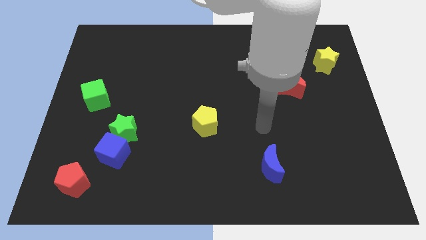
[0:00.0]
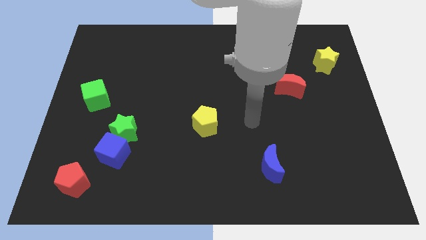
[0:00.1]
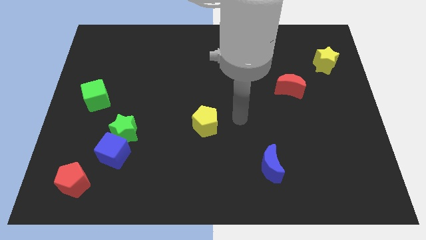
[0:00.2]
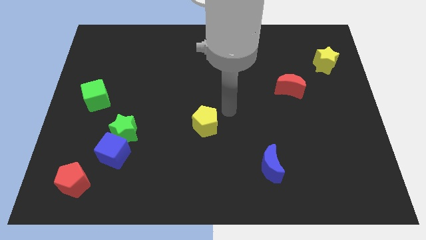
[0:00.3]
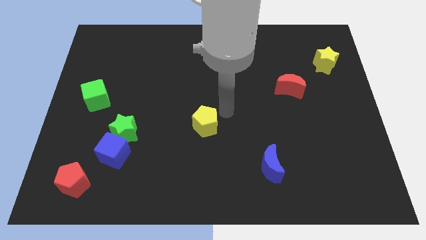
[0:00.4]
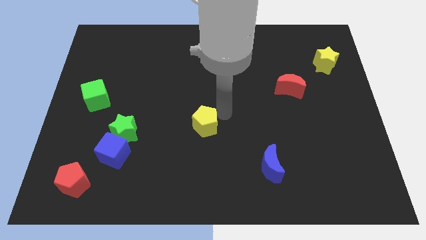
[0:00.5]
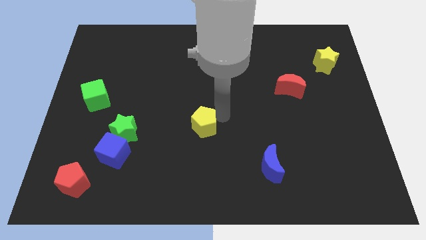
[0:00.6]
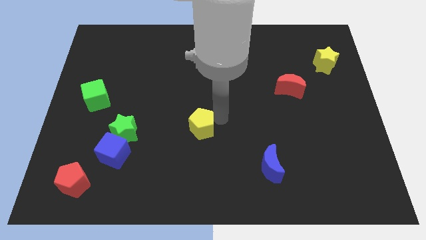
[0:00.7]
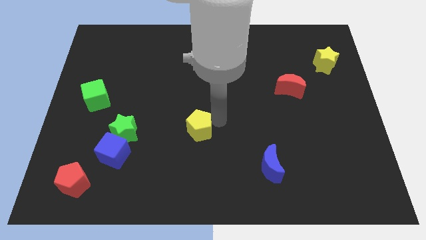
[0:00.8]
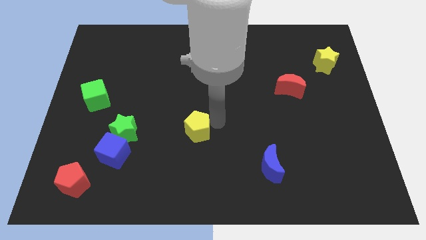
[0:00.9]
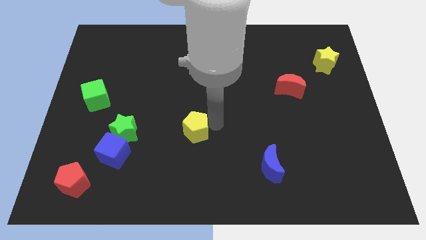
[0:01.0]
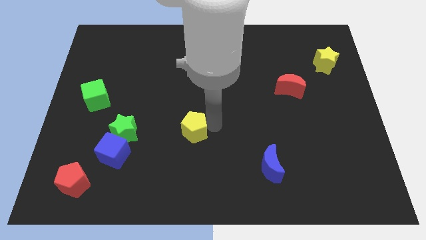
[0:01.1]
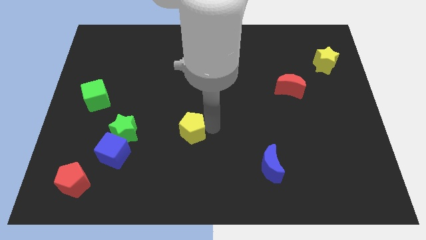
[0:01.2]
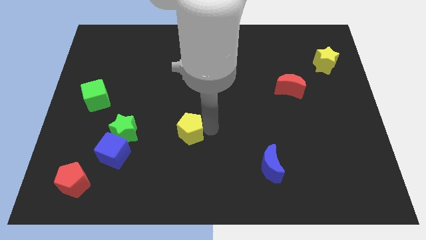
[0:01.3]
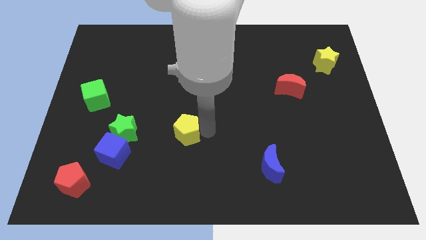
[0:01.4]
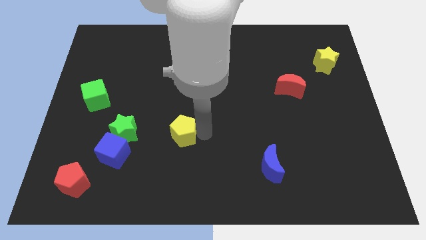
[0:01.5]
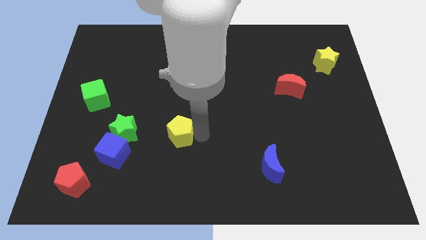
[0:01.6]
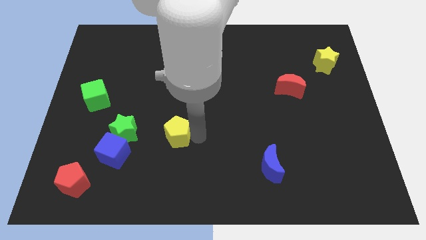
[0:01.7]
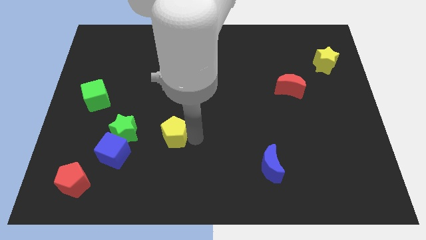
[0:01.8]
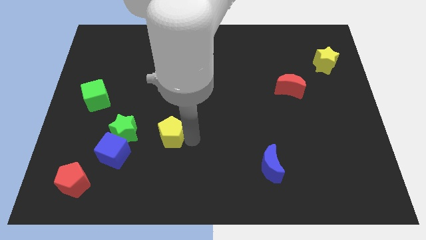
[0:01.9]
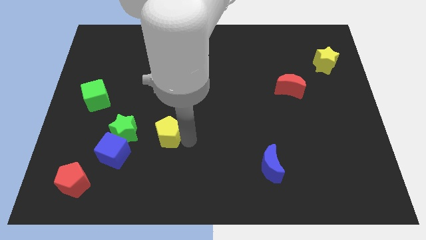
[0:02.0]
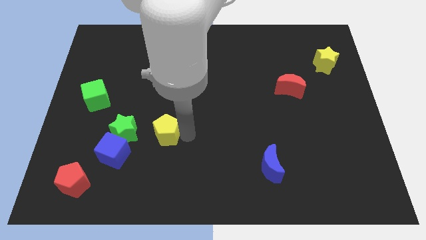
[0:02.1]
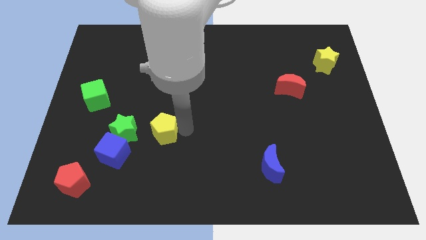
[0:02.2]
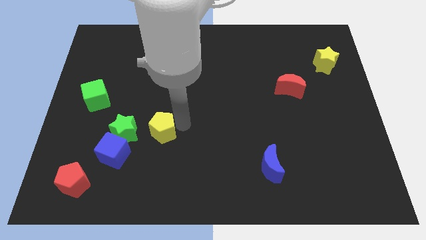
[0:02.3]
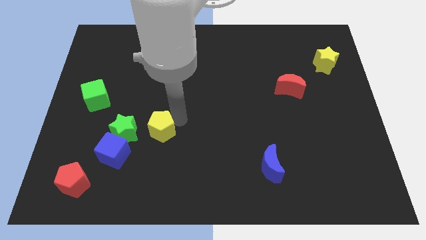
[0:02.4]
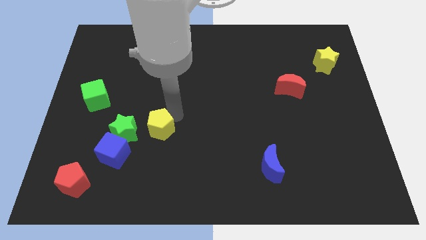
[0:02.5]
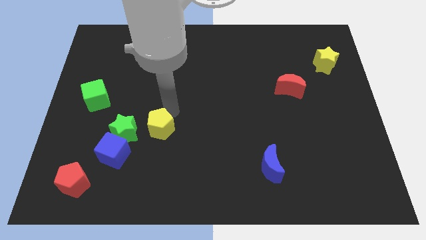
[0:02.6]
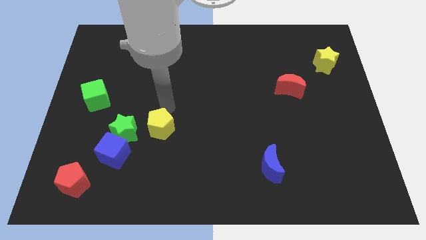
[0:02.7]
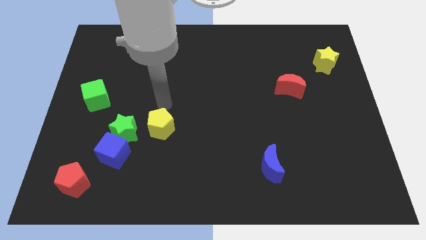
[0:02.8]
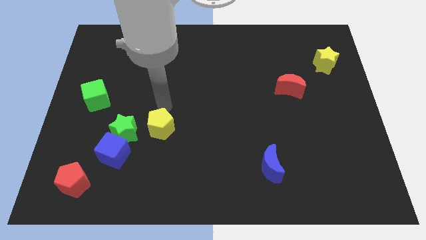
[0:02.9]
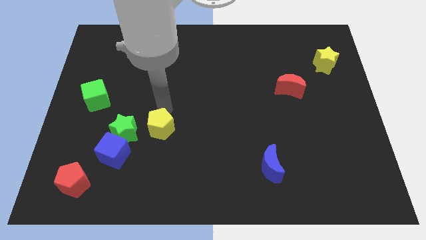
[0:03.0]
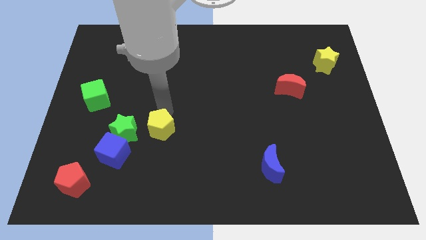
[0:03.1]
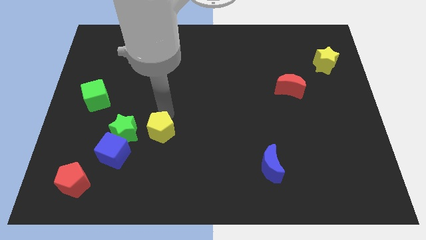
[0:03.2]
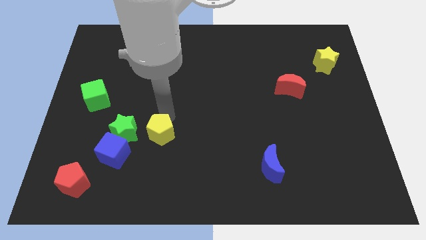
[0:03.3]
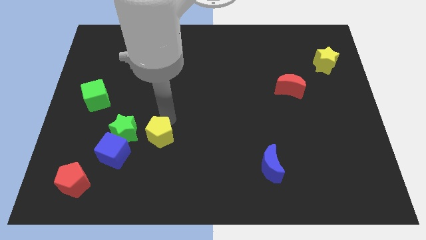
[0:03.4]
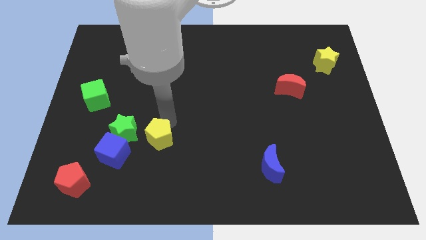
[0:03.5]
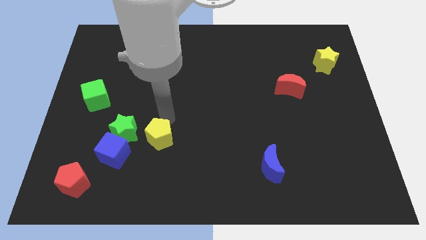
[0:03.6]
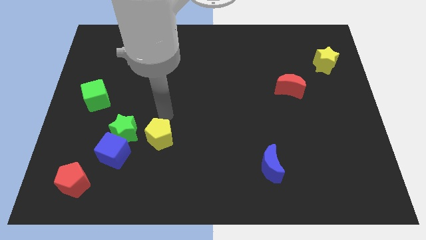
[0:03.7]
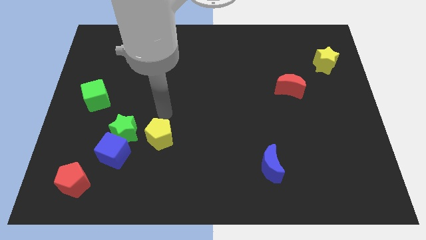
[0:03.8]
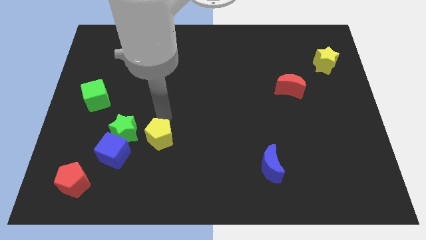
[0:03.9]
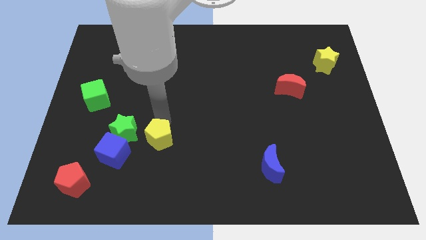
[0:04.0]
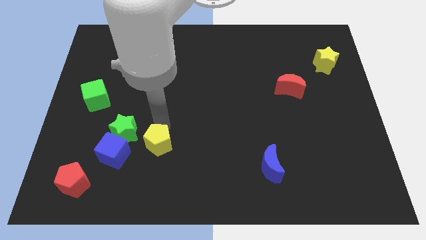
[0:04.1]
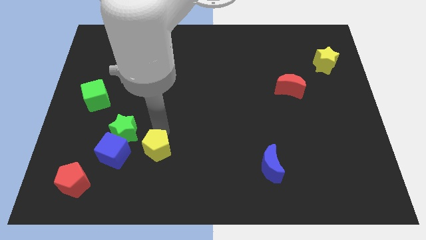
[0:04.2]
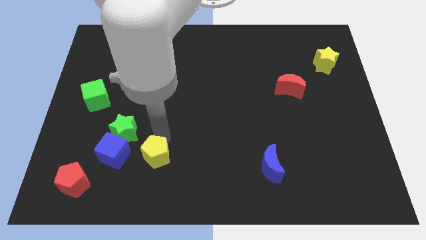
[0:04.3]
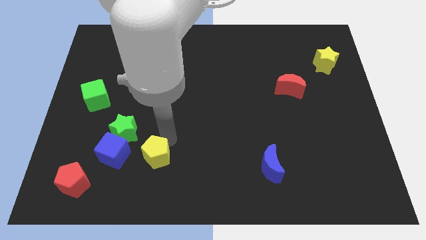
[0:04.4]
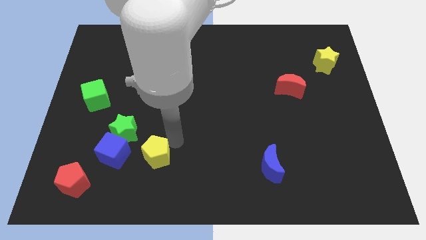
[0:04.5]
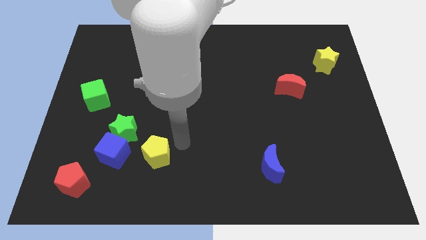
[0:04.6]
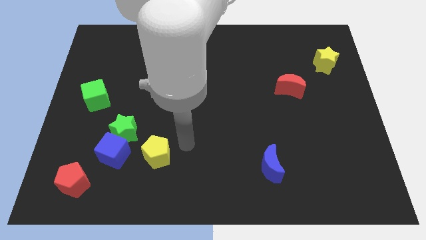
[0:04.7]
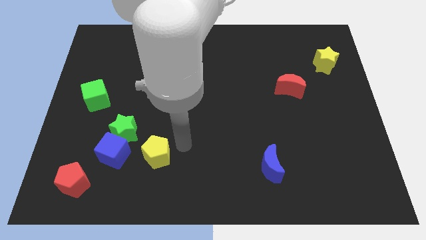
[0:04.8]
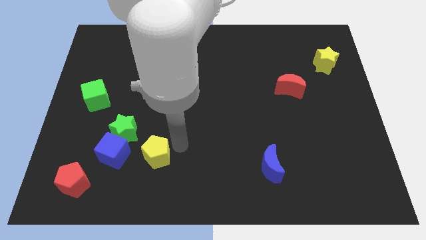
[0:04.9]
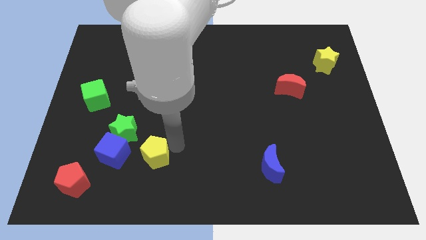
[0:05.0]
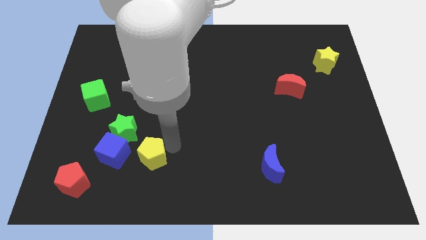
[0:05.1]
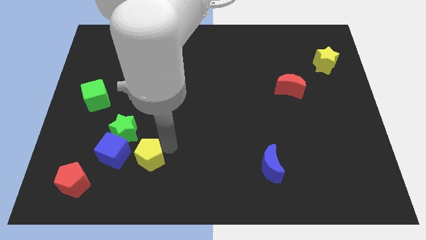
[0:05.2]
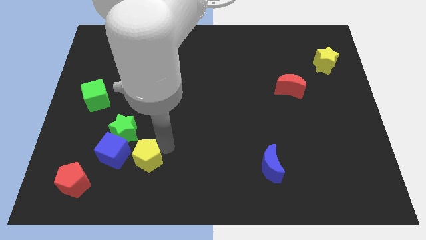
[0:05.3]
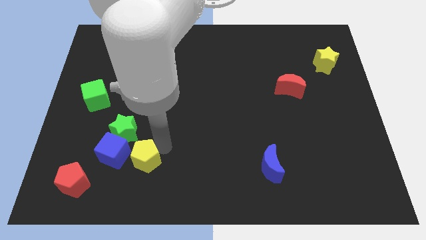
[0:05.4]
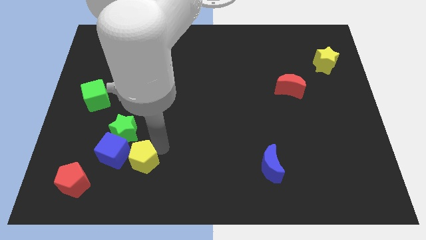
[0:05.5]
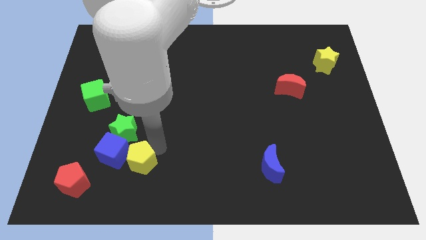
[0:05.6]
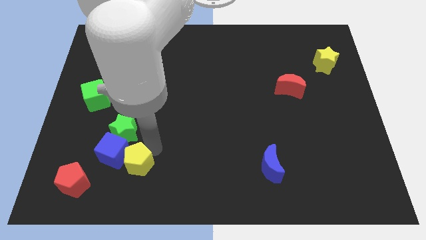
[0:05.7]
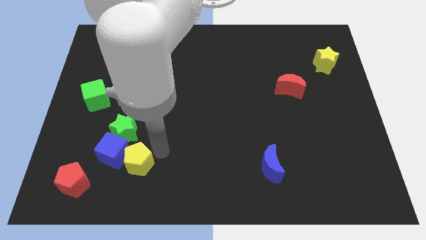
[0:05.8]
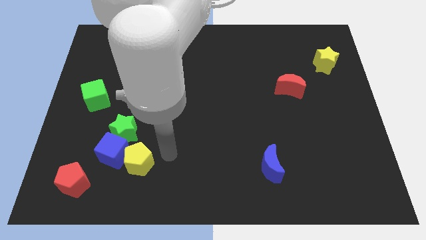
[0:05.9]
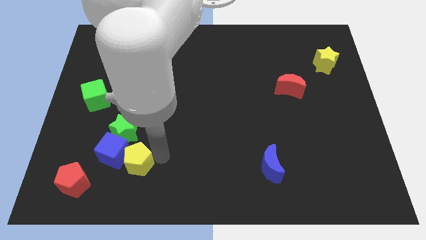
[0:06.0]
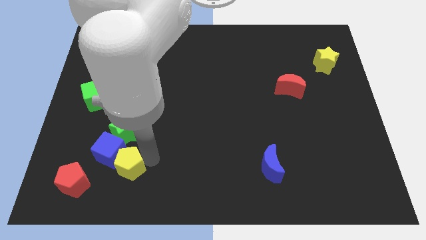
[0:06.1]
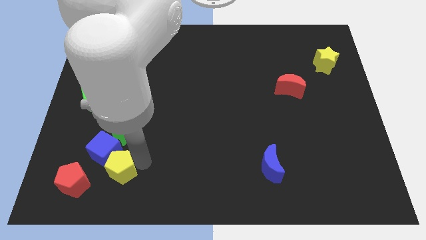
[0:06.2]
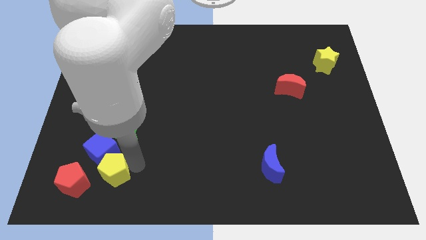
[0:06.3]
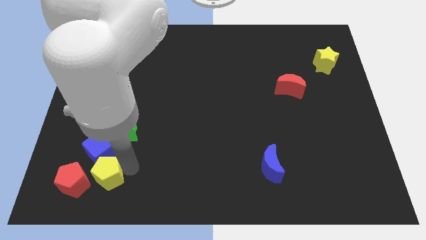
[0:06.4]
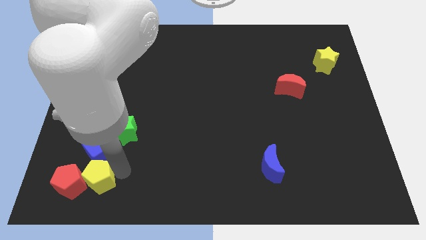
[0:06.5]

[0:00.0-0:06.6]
move the yellow pentagon next to the red pentagon

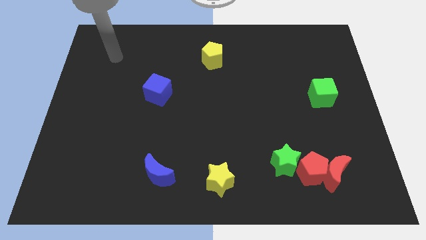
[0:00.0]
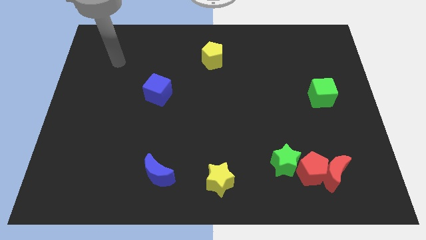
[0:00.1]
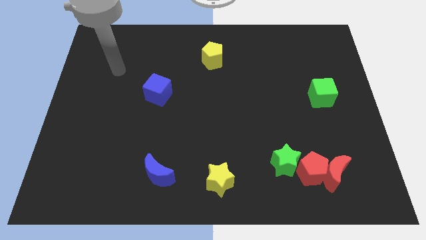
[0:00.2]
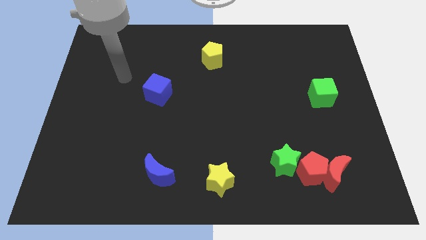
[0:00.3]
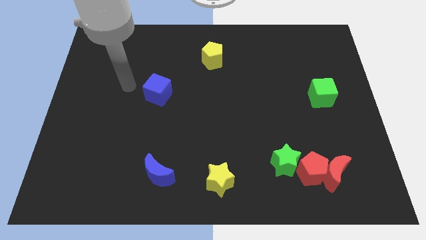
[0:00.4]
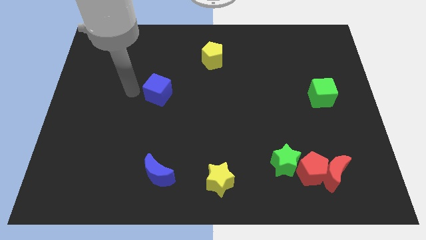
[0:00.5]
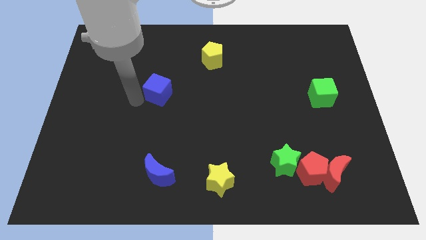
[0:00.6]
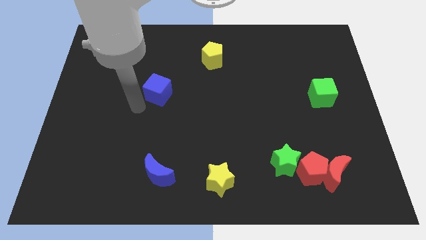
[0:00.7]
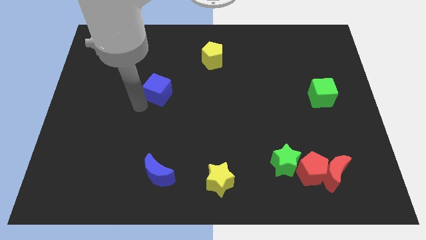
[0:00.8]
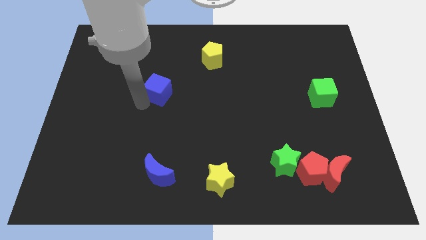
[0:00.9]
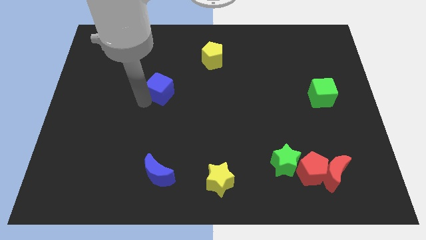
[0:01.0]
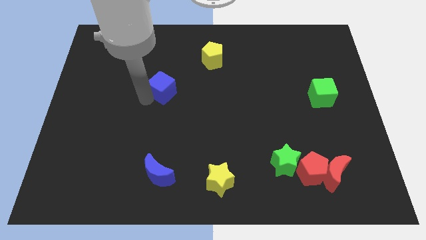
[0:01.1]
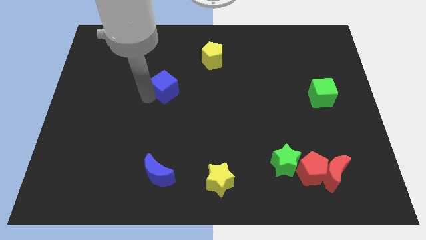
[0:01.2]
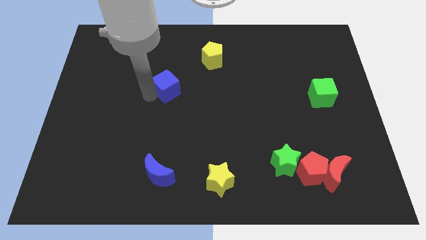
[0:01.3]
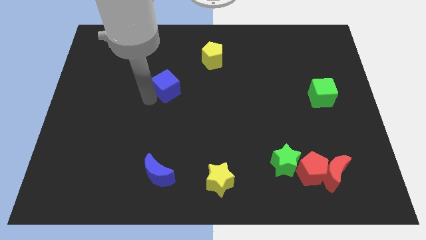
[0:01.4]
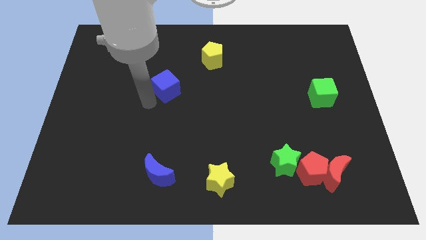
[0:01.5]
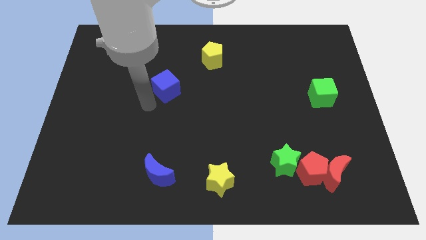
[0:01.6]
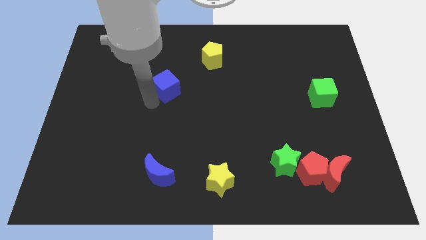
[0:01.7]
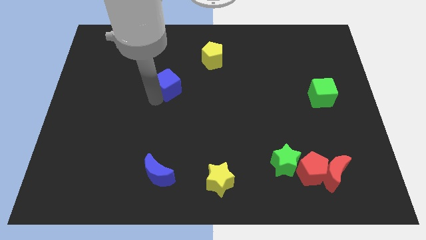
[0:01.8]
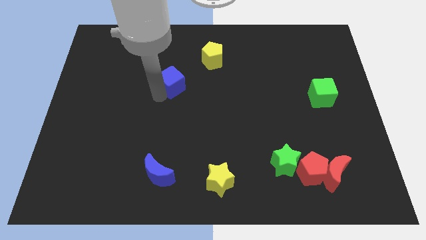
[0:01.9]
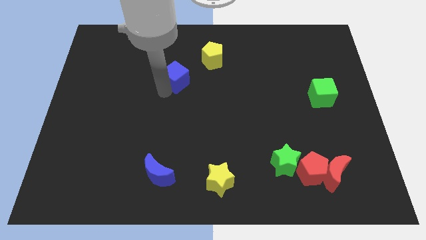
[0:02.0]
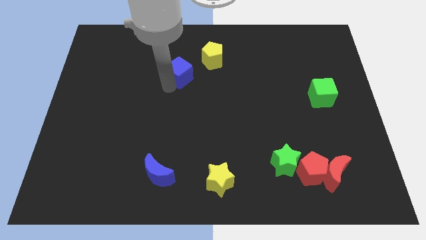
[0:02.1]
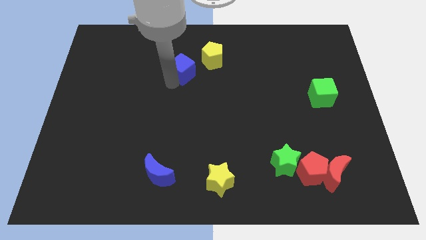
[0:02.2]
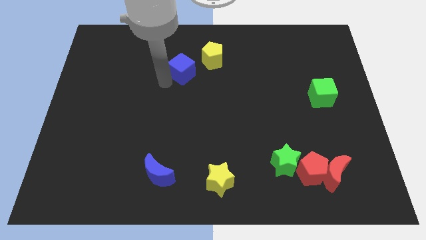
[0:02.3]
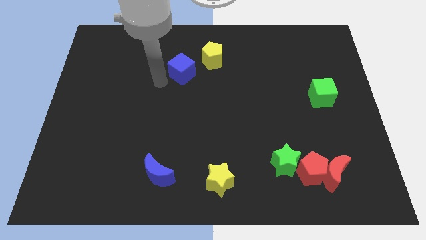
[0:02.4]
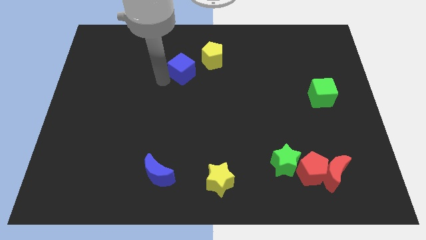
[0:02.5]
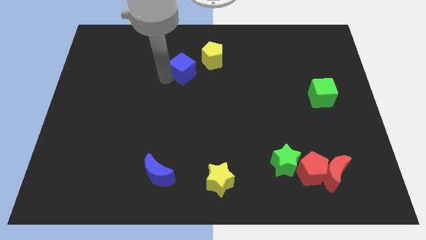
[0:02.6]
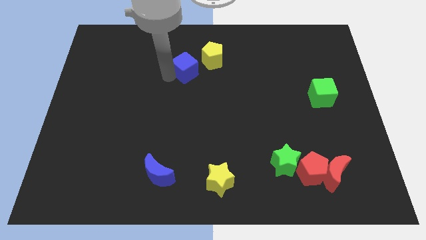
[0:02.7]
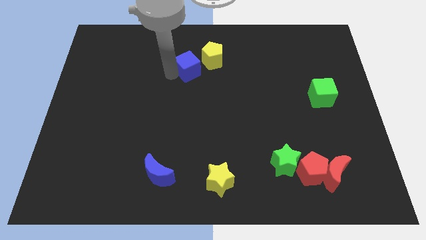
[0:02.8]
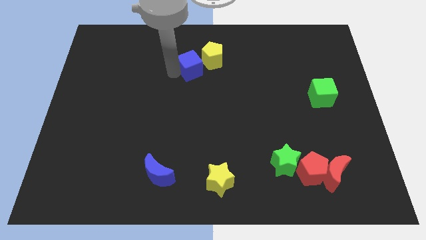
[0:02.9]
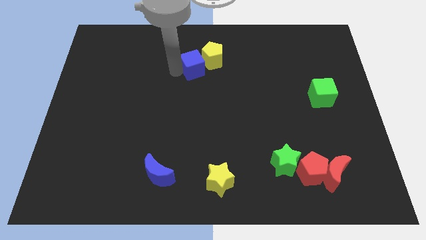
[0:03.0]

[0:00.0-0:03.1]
slide the blue cube close to the yellow pentagon
